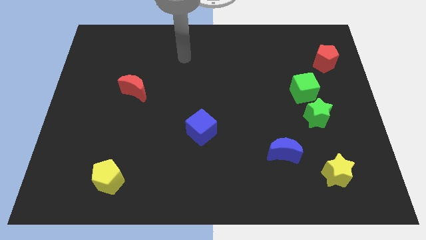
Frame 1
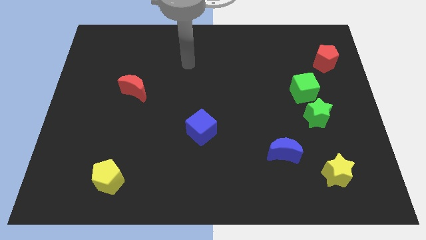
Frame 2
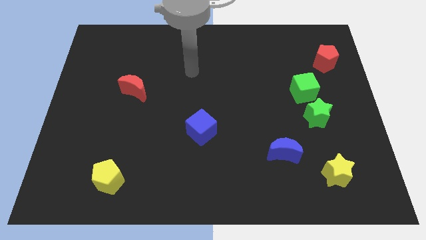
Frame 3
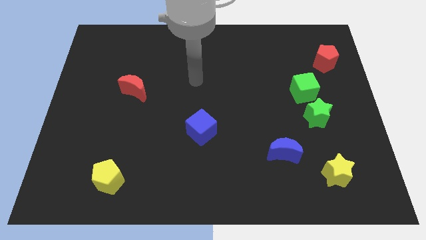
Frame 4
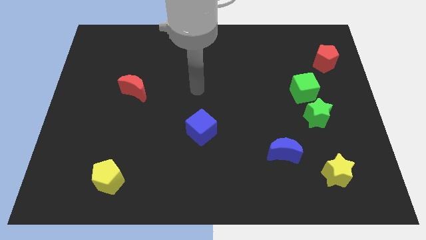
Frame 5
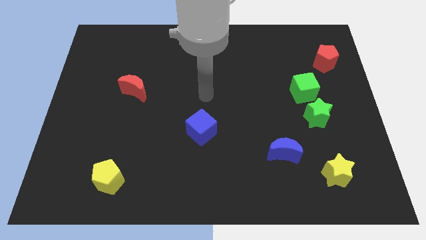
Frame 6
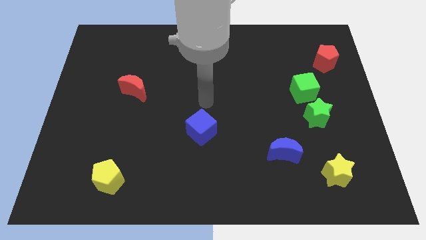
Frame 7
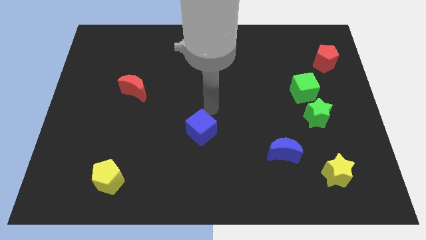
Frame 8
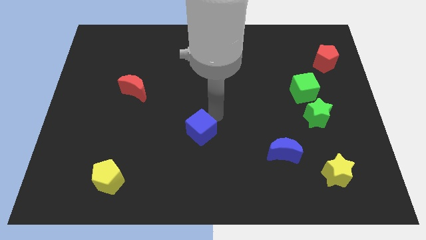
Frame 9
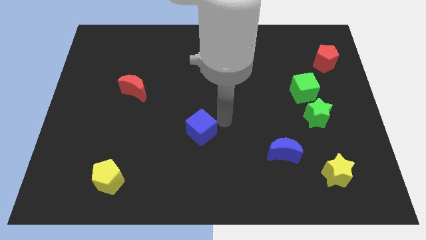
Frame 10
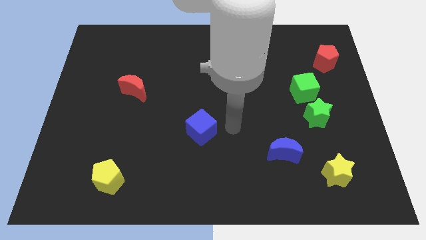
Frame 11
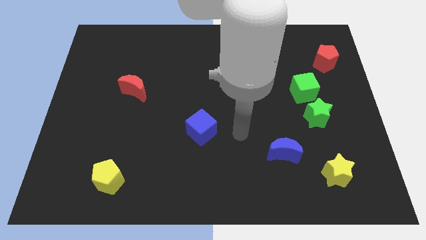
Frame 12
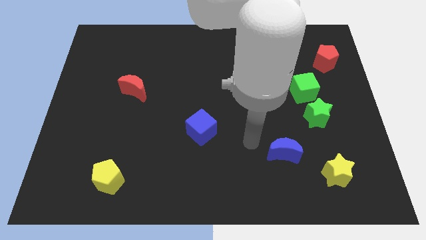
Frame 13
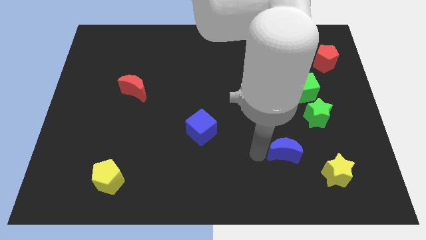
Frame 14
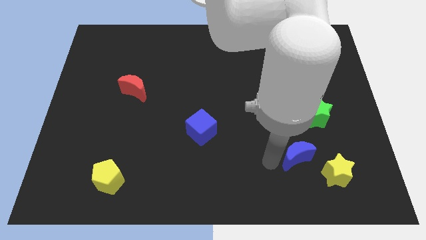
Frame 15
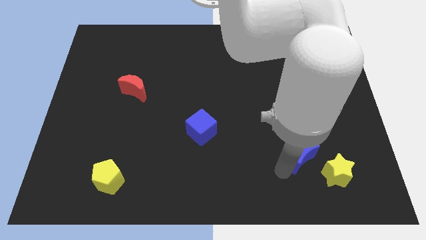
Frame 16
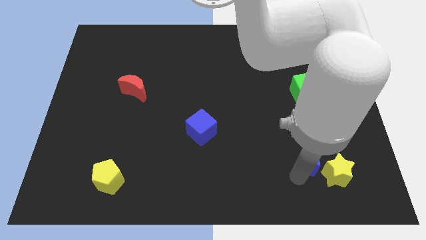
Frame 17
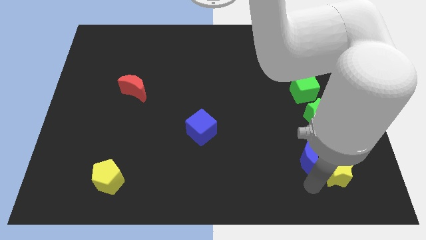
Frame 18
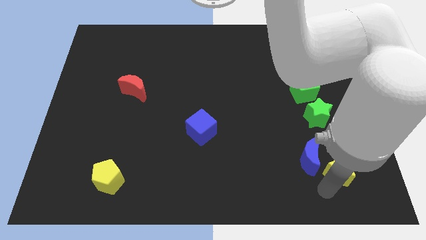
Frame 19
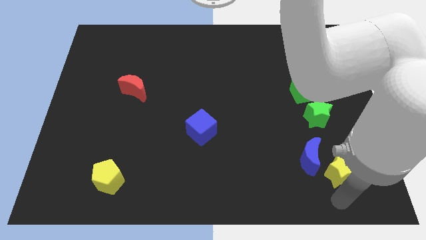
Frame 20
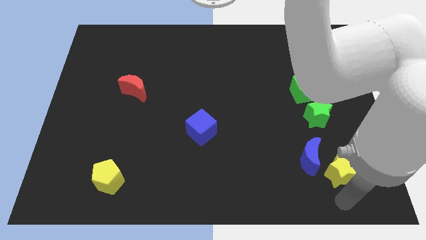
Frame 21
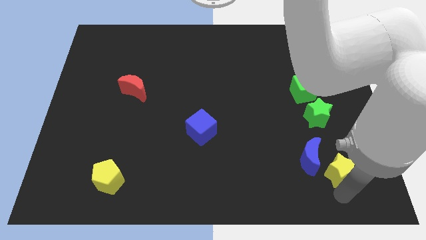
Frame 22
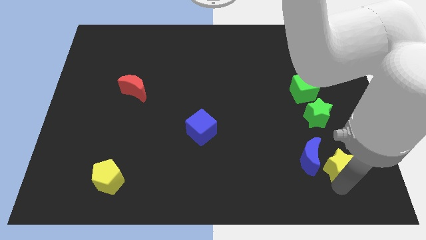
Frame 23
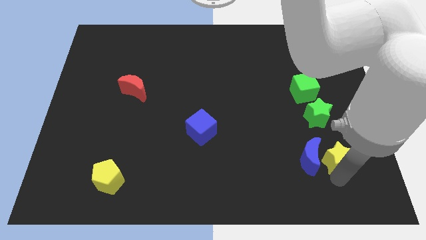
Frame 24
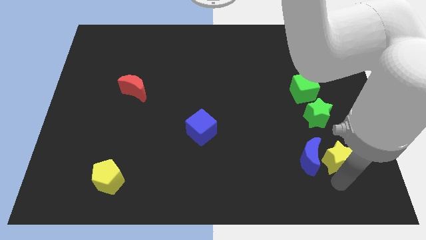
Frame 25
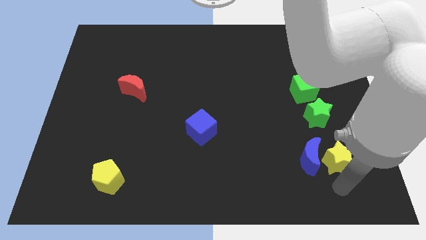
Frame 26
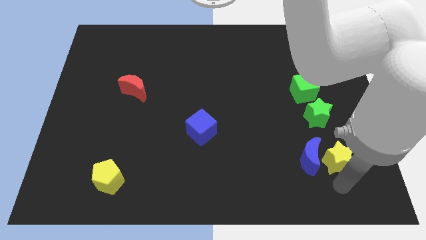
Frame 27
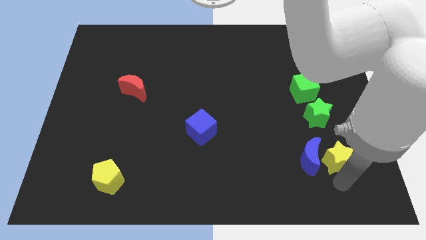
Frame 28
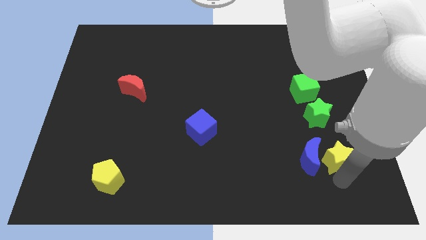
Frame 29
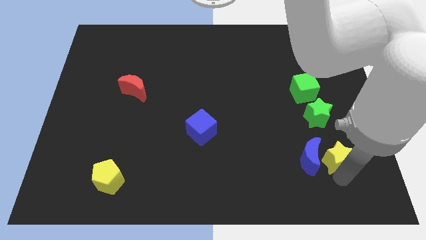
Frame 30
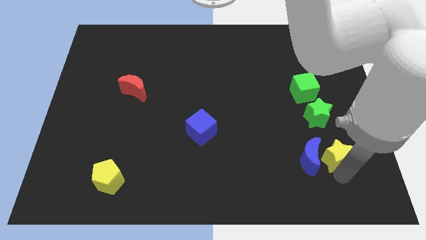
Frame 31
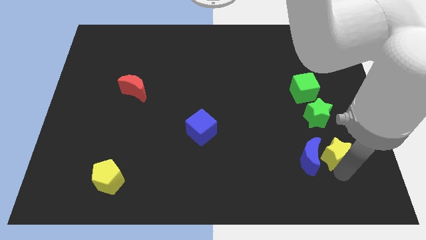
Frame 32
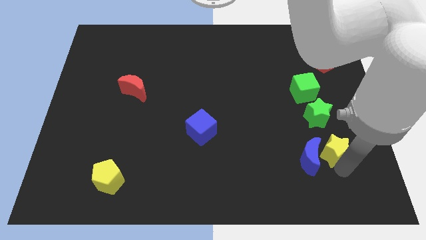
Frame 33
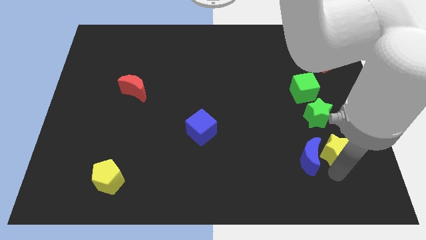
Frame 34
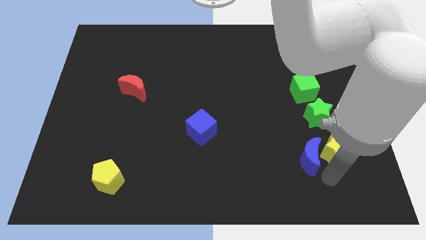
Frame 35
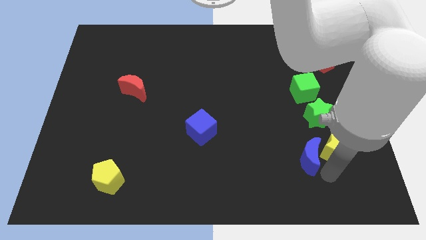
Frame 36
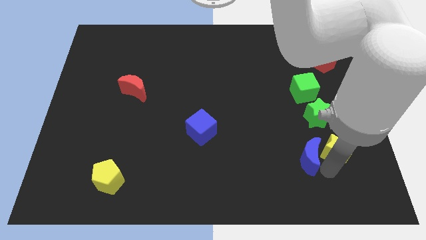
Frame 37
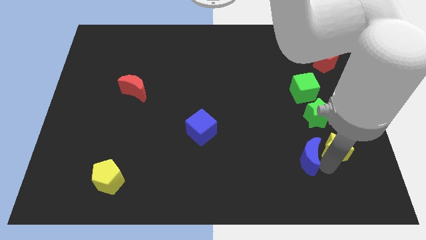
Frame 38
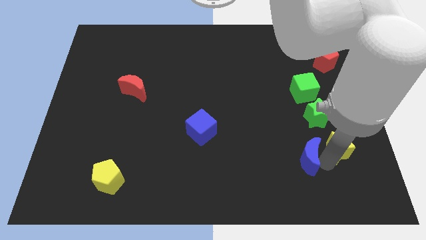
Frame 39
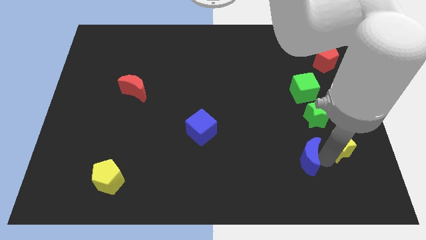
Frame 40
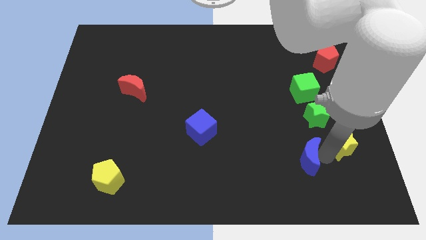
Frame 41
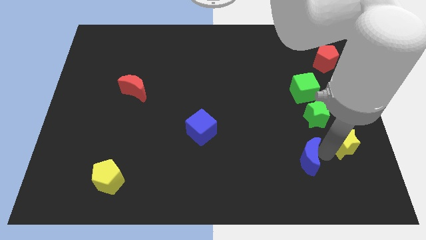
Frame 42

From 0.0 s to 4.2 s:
slightly move the yellow star up

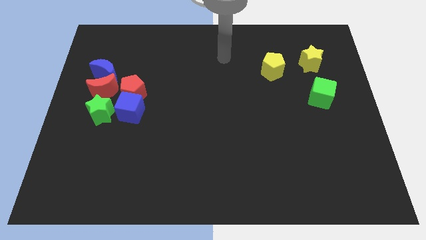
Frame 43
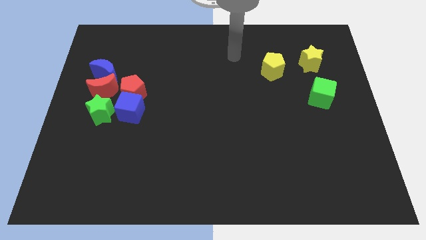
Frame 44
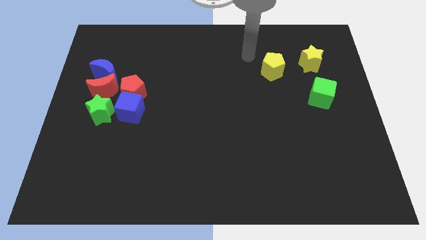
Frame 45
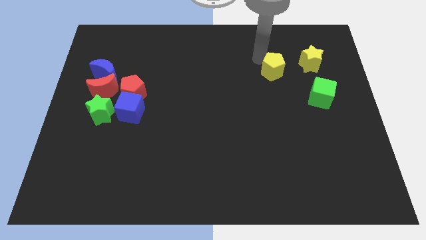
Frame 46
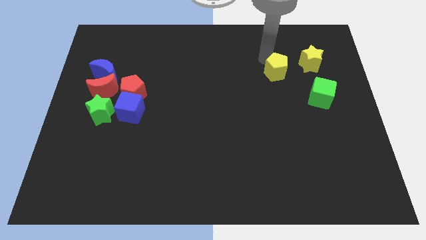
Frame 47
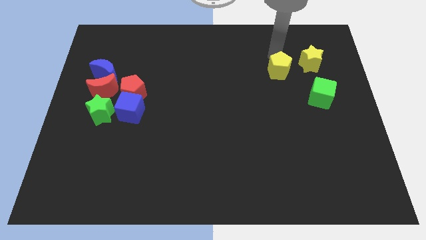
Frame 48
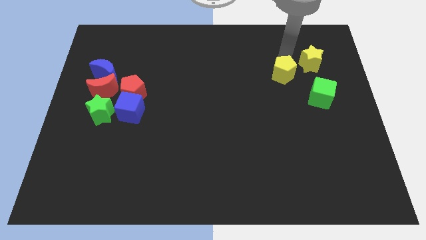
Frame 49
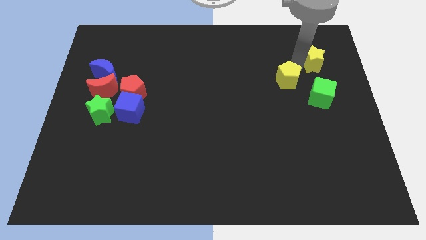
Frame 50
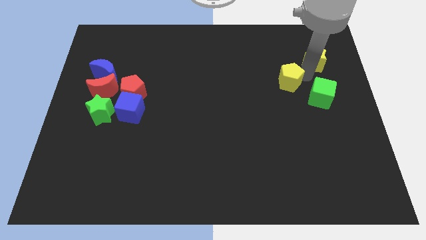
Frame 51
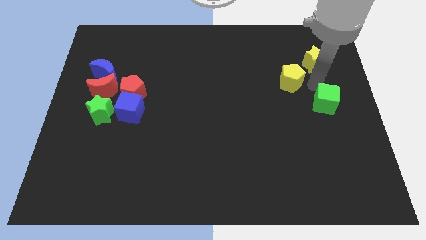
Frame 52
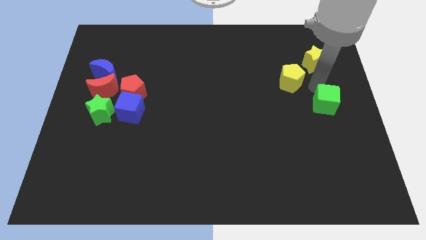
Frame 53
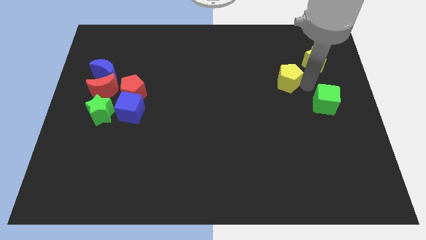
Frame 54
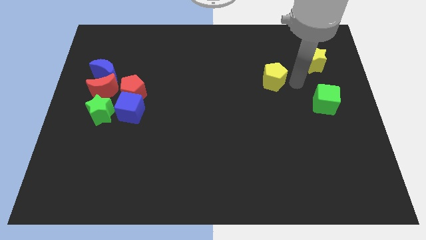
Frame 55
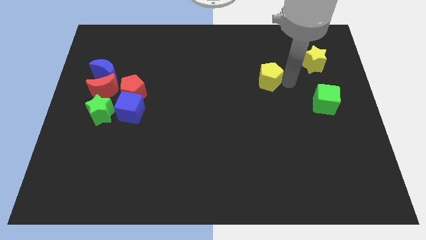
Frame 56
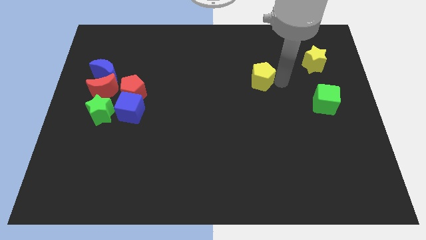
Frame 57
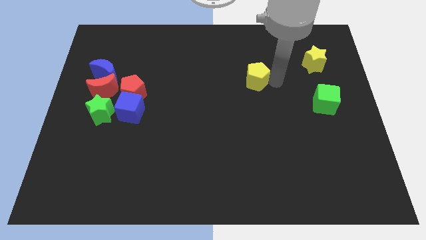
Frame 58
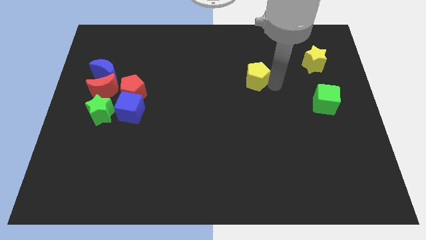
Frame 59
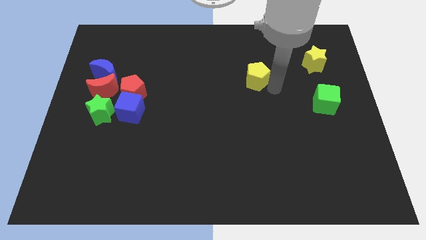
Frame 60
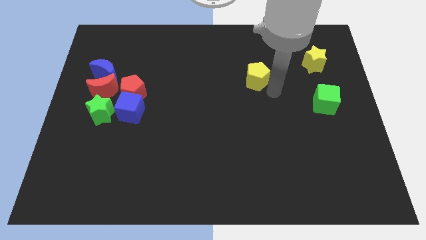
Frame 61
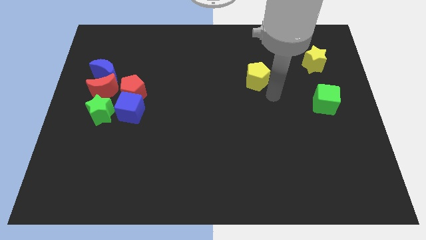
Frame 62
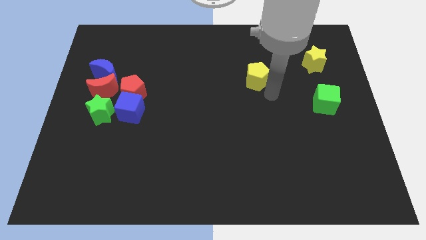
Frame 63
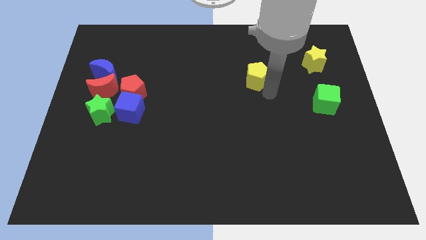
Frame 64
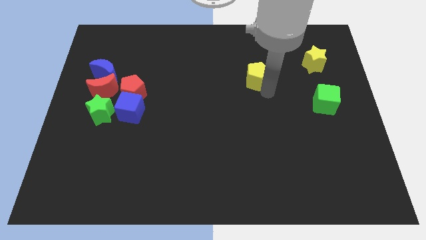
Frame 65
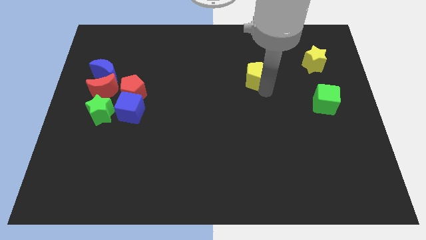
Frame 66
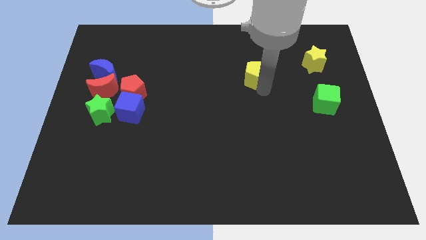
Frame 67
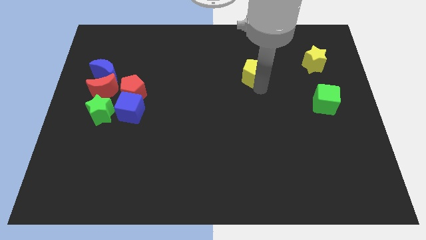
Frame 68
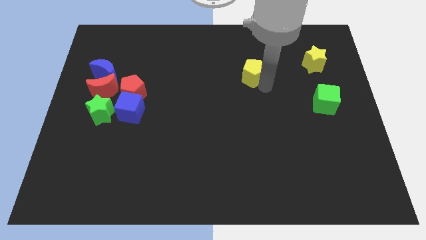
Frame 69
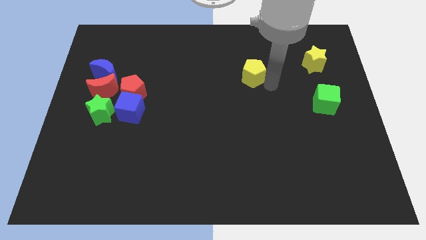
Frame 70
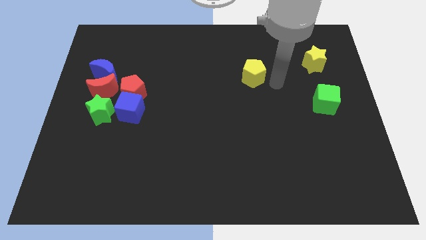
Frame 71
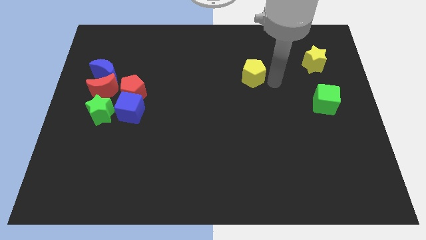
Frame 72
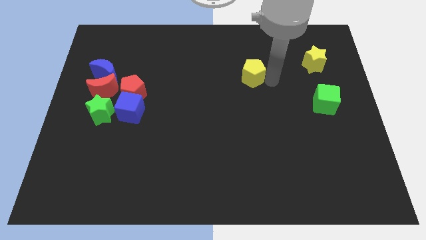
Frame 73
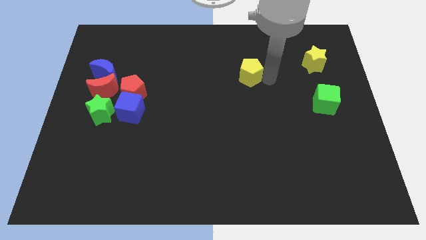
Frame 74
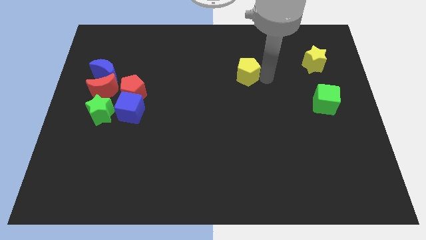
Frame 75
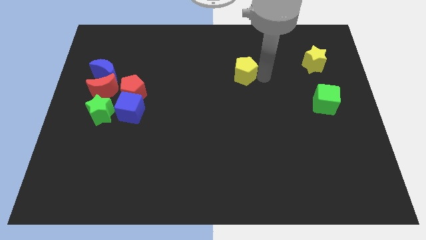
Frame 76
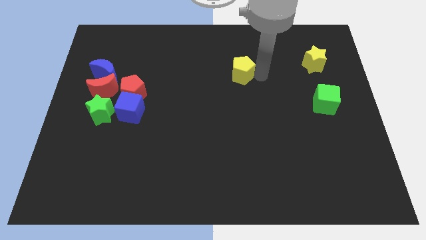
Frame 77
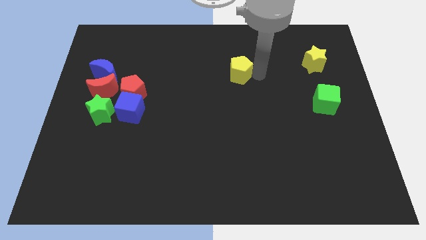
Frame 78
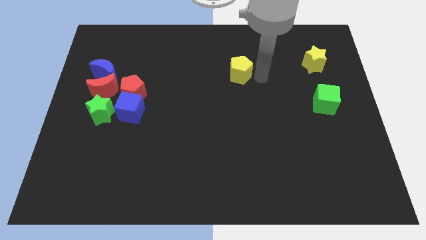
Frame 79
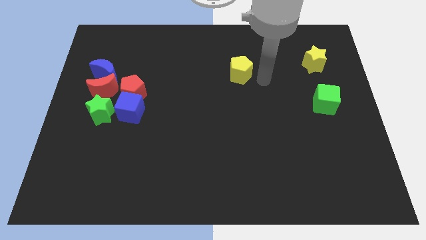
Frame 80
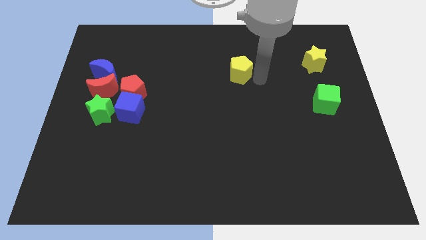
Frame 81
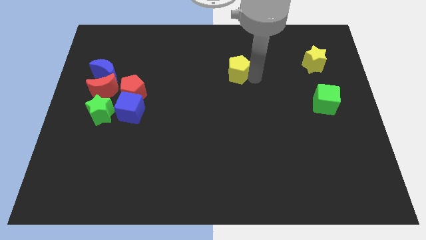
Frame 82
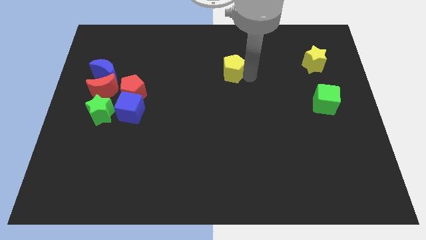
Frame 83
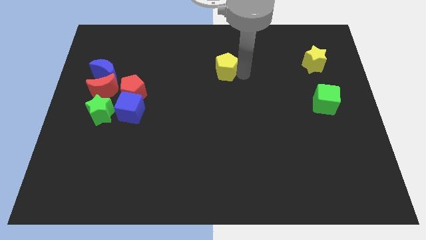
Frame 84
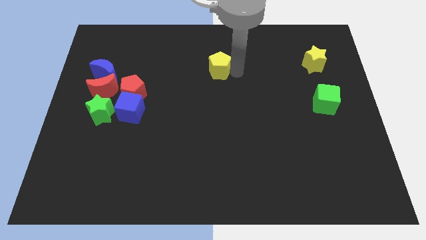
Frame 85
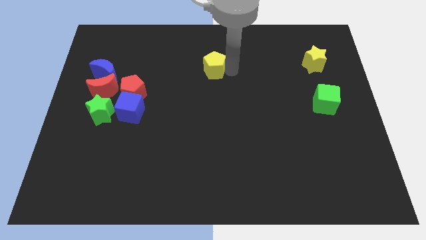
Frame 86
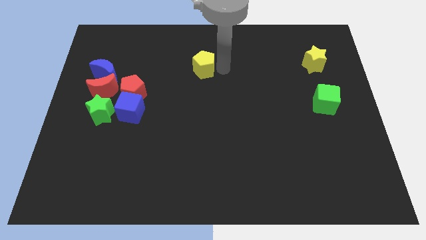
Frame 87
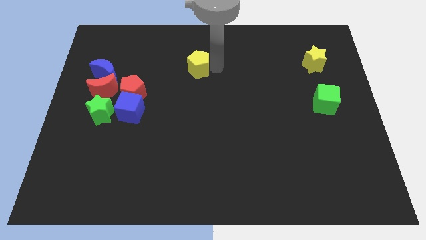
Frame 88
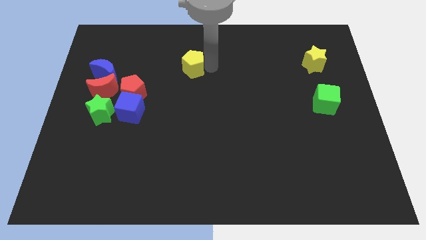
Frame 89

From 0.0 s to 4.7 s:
move the yellow pentagon left
